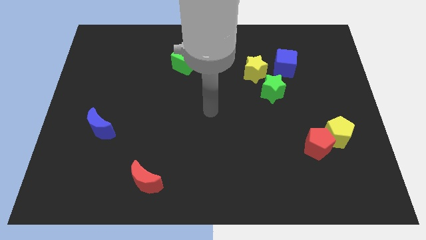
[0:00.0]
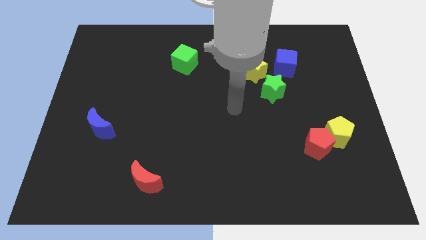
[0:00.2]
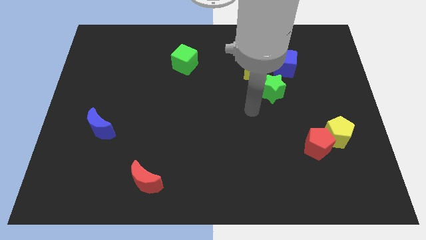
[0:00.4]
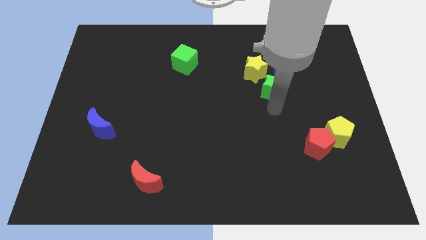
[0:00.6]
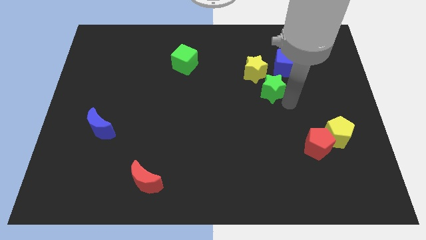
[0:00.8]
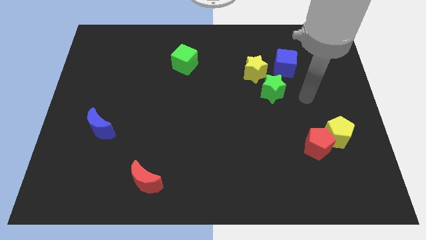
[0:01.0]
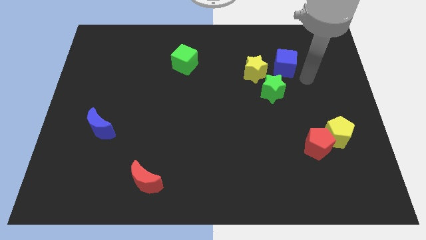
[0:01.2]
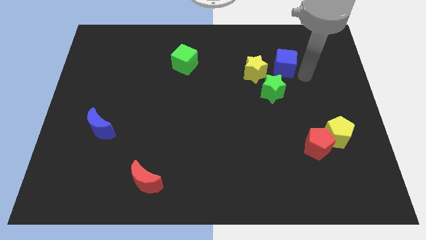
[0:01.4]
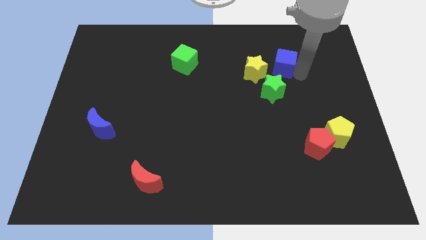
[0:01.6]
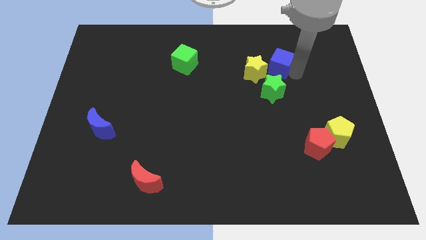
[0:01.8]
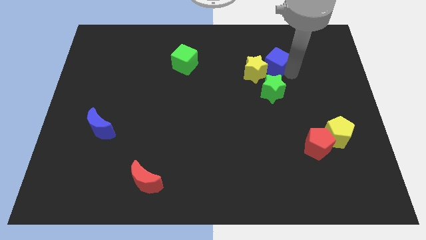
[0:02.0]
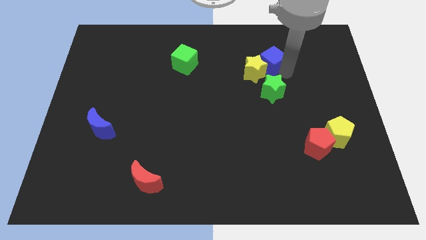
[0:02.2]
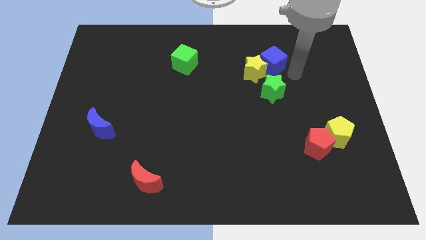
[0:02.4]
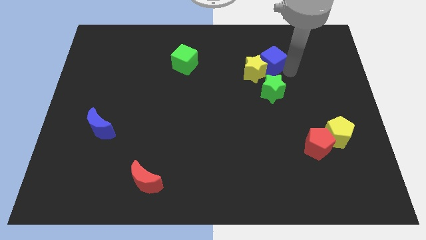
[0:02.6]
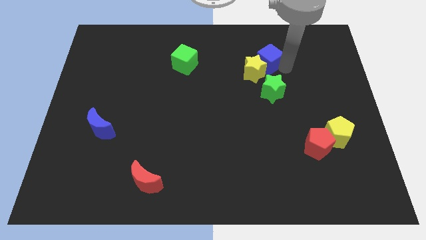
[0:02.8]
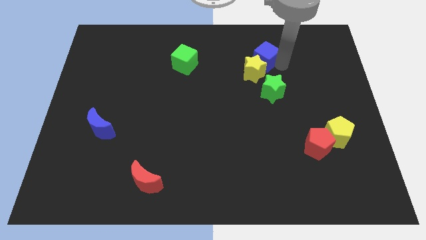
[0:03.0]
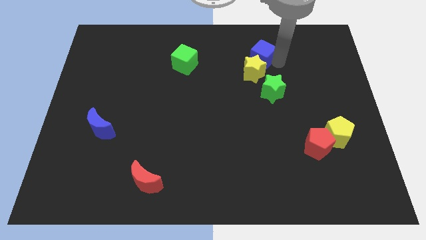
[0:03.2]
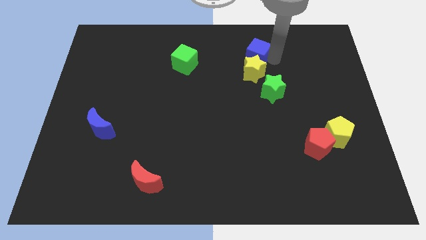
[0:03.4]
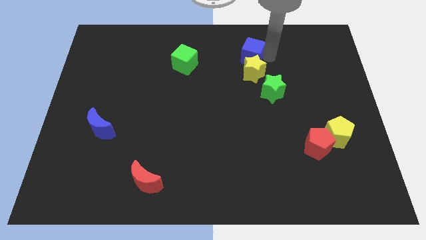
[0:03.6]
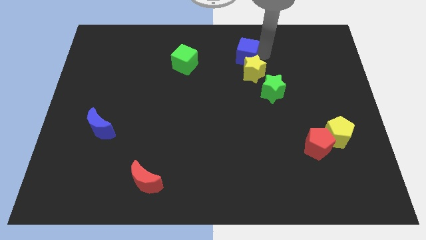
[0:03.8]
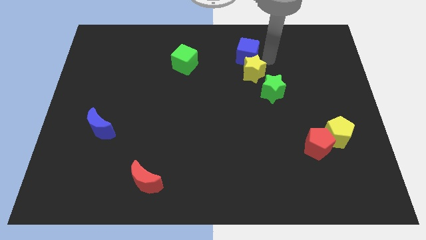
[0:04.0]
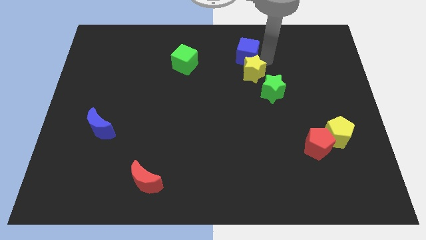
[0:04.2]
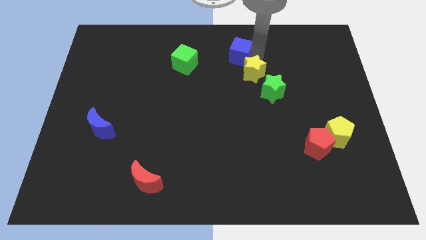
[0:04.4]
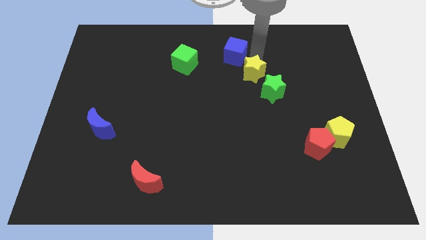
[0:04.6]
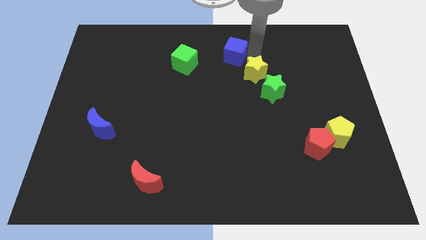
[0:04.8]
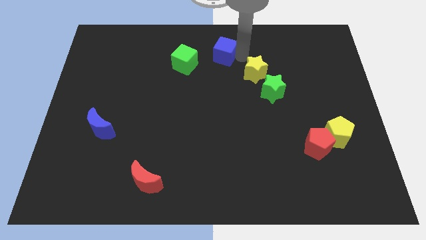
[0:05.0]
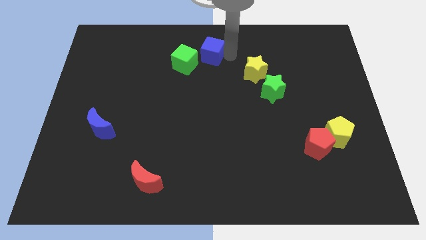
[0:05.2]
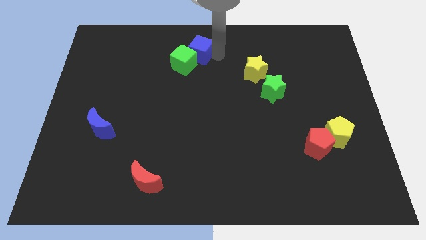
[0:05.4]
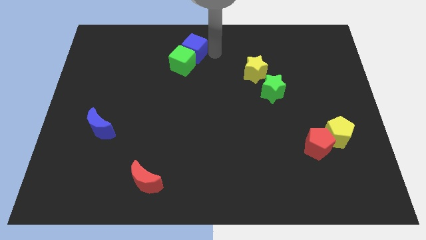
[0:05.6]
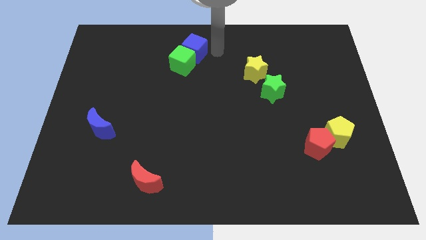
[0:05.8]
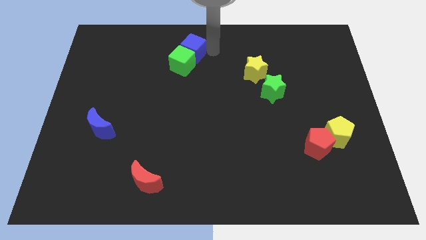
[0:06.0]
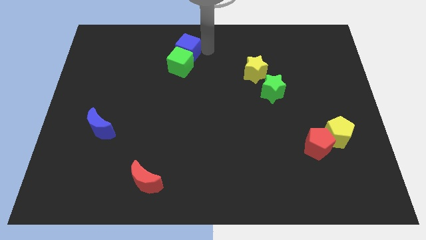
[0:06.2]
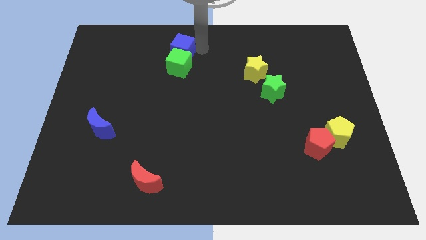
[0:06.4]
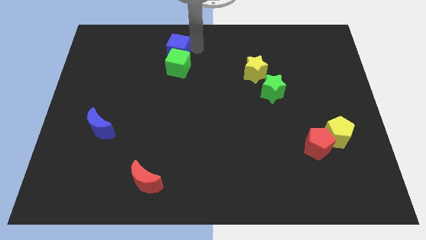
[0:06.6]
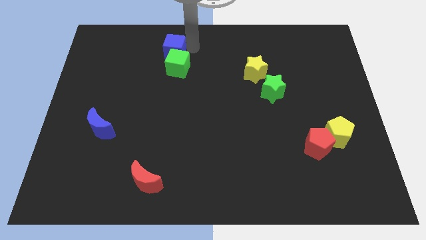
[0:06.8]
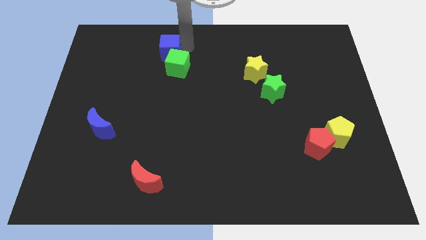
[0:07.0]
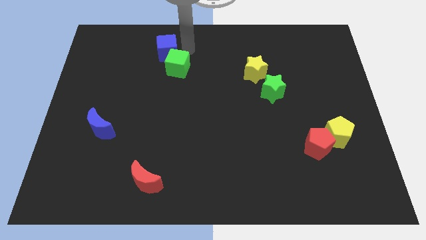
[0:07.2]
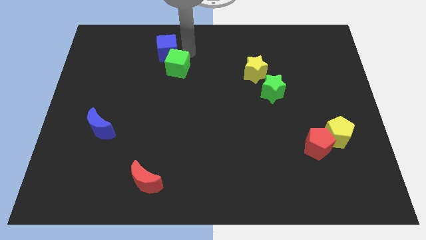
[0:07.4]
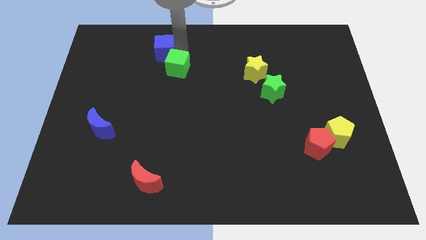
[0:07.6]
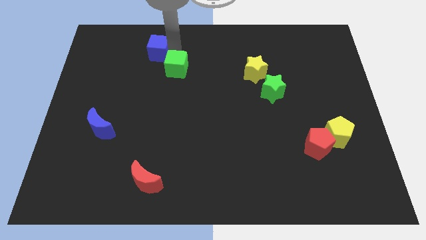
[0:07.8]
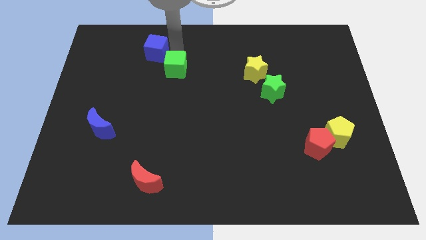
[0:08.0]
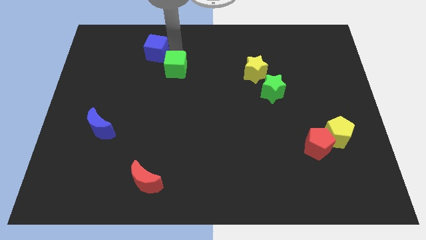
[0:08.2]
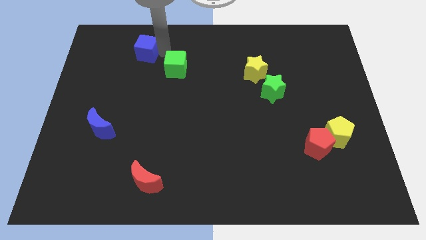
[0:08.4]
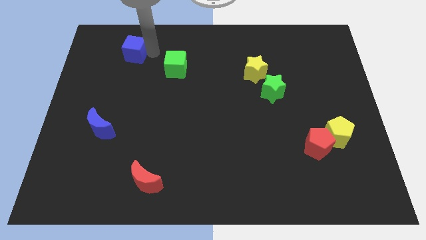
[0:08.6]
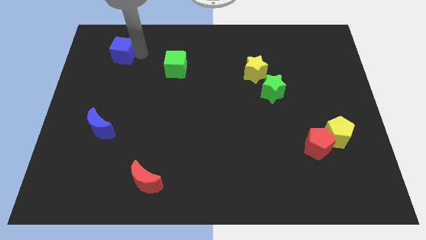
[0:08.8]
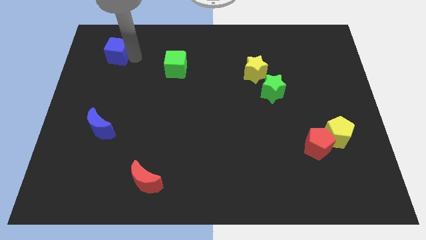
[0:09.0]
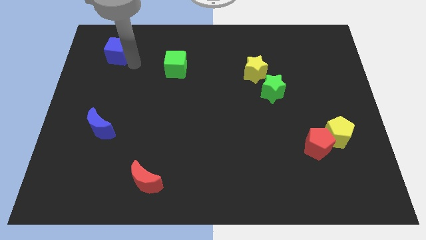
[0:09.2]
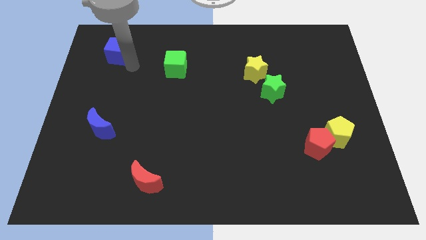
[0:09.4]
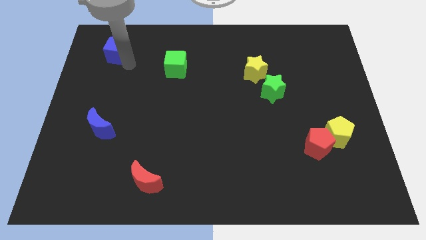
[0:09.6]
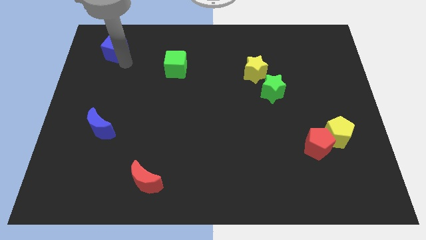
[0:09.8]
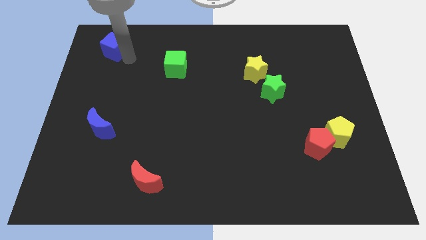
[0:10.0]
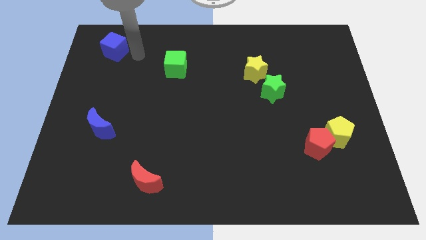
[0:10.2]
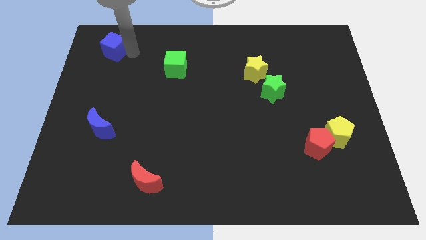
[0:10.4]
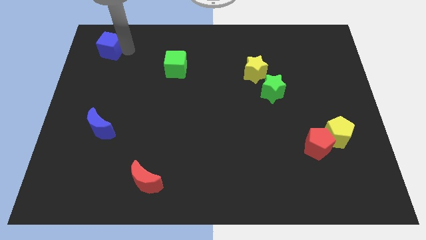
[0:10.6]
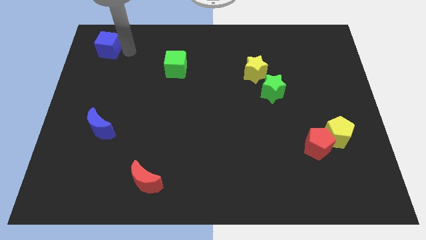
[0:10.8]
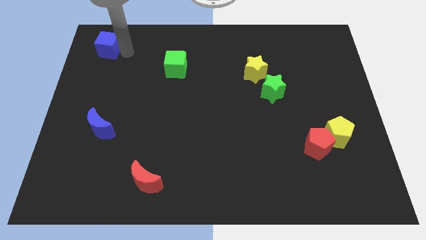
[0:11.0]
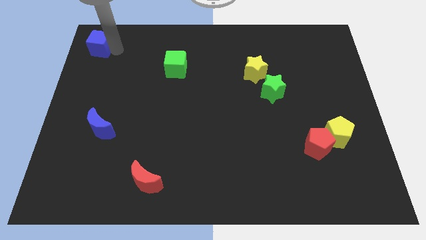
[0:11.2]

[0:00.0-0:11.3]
push the blue cube to the top left of the board
